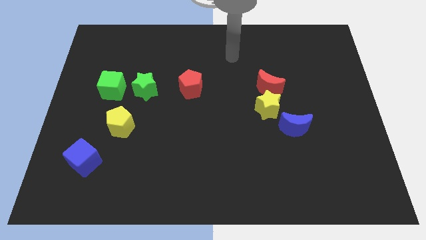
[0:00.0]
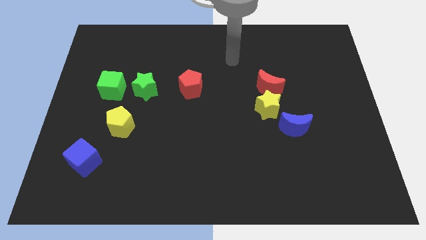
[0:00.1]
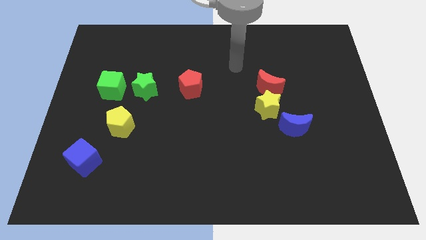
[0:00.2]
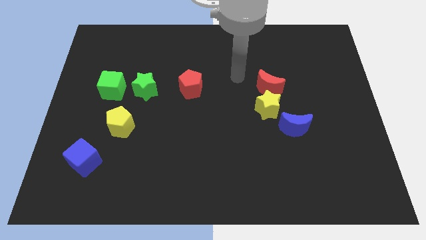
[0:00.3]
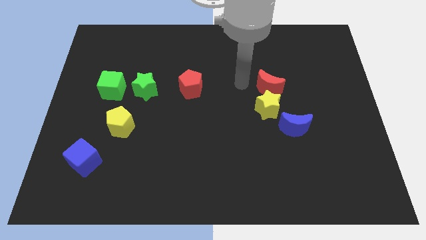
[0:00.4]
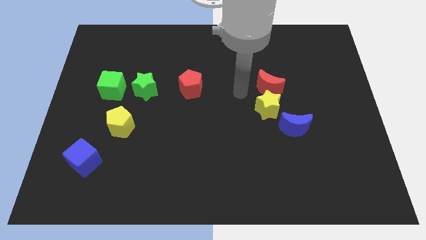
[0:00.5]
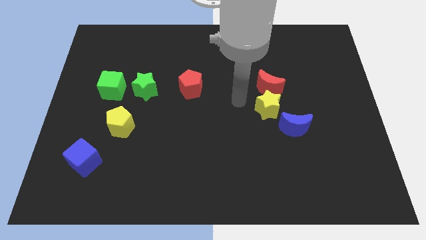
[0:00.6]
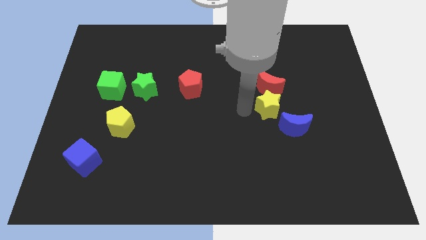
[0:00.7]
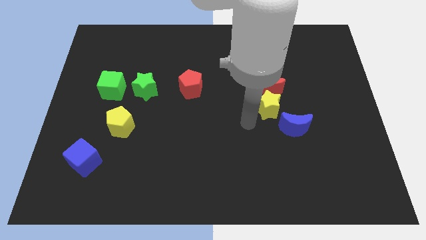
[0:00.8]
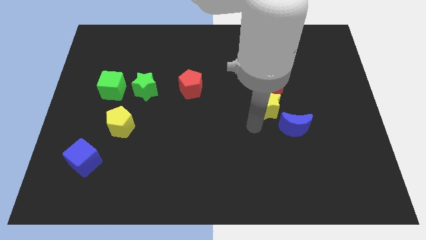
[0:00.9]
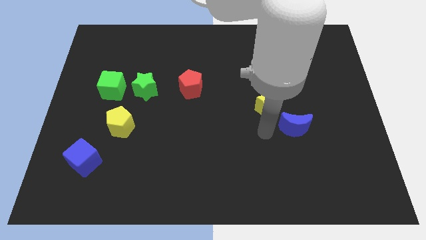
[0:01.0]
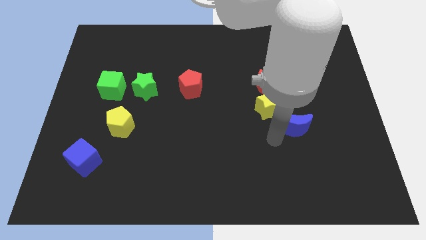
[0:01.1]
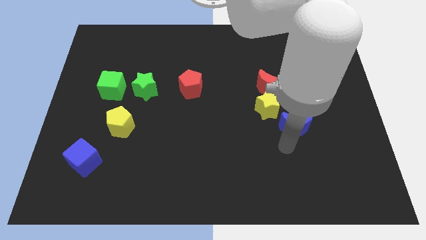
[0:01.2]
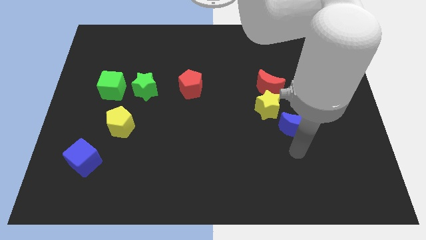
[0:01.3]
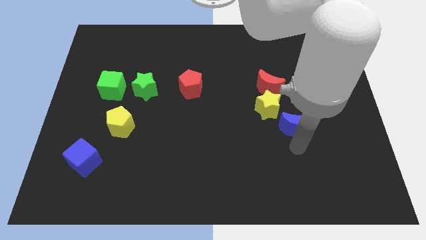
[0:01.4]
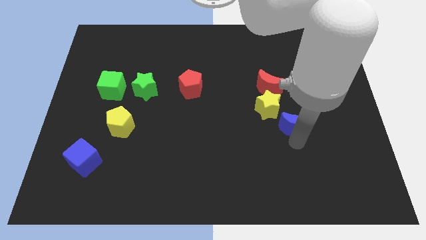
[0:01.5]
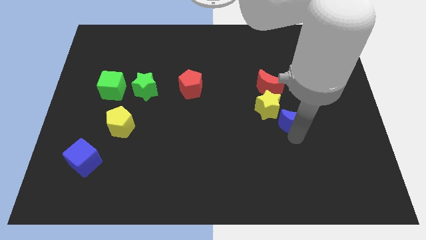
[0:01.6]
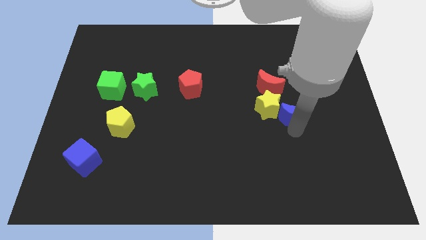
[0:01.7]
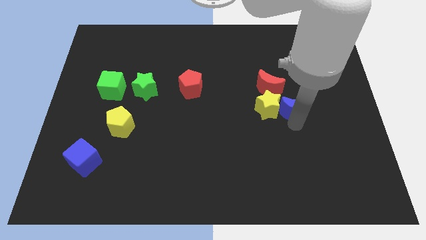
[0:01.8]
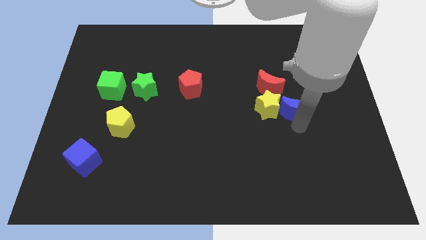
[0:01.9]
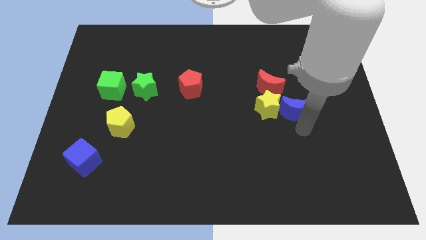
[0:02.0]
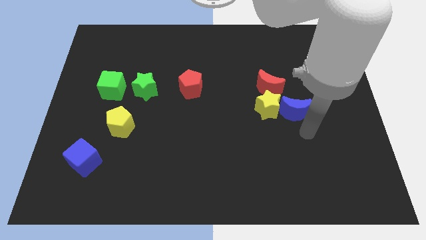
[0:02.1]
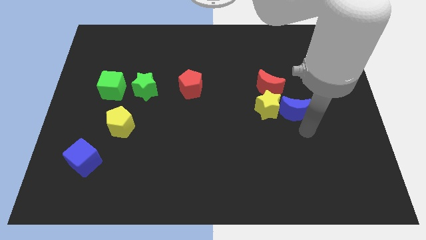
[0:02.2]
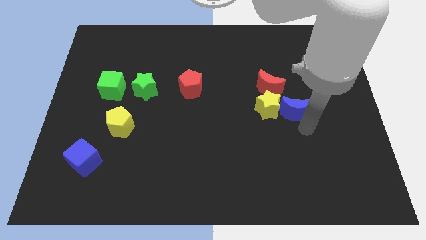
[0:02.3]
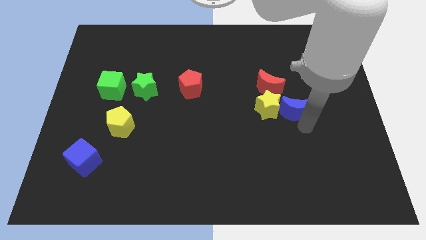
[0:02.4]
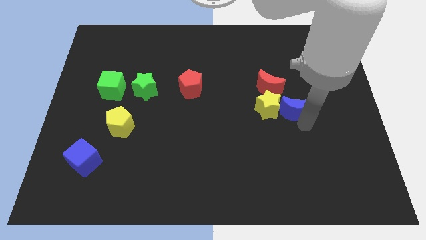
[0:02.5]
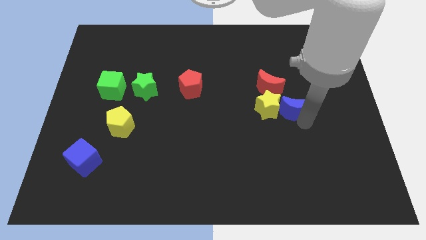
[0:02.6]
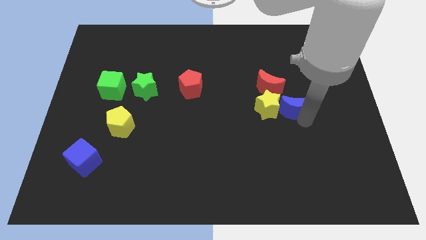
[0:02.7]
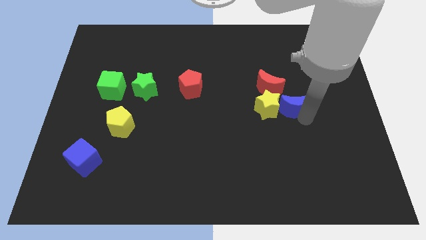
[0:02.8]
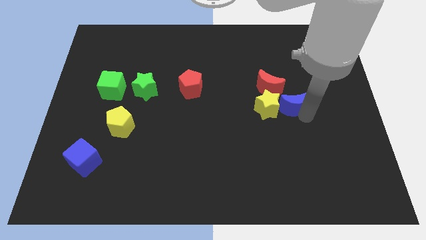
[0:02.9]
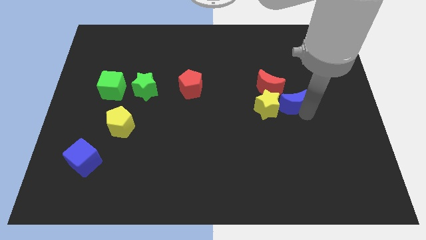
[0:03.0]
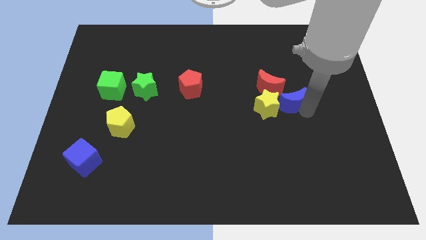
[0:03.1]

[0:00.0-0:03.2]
move the blue moon a little upwards

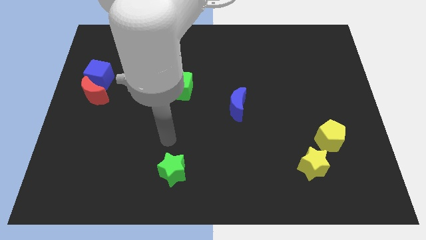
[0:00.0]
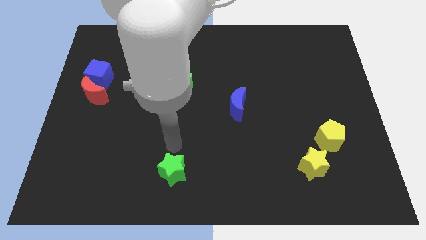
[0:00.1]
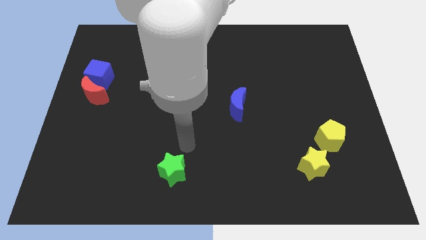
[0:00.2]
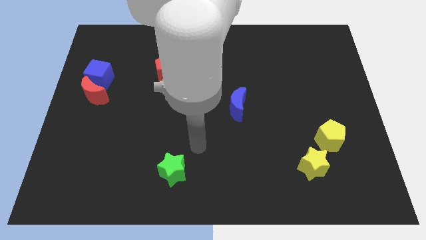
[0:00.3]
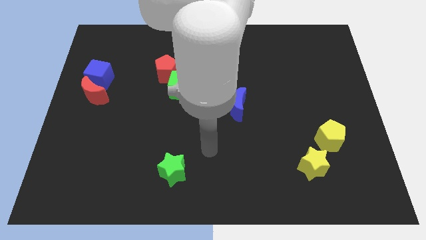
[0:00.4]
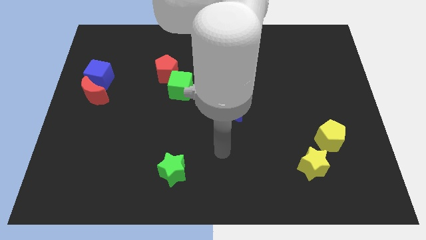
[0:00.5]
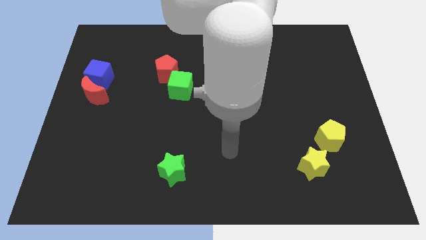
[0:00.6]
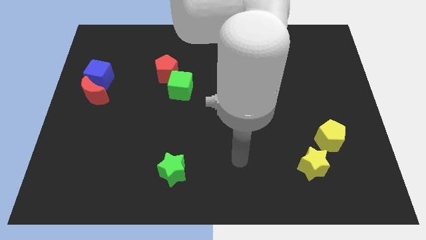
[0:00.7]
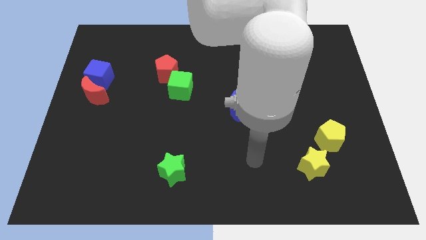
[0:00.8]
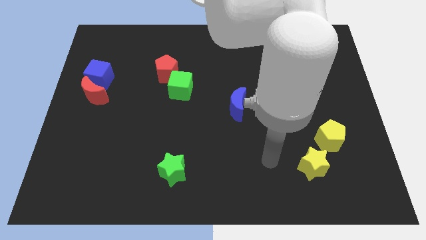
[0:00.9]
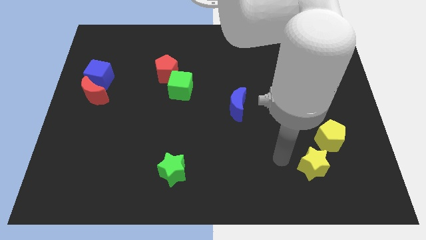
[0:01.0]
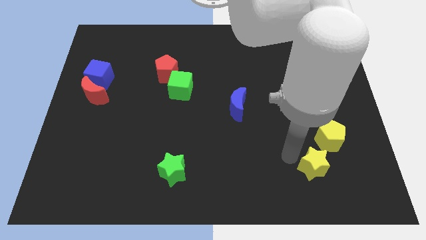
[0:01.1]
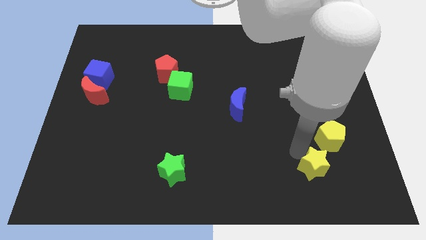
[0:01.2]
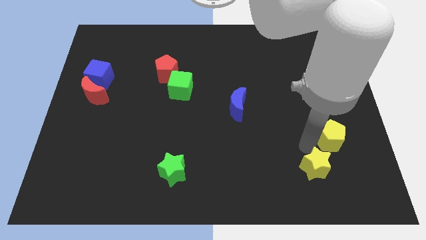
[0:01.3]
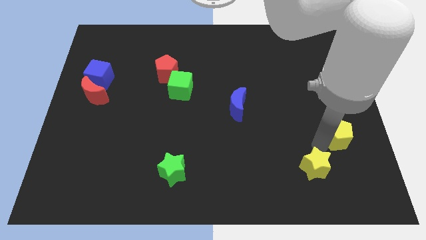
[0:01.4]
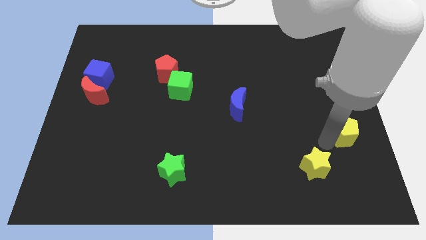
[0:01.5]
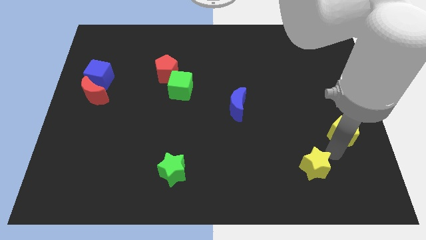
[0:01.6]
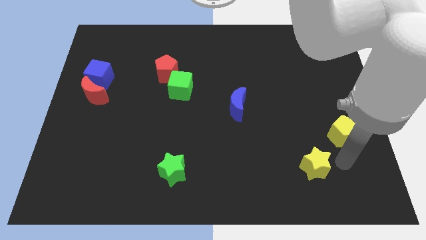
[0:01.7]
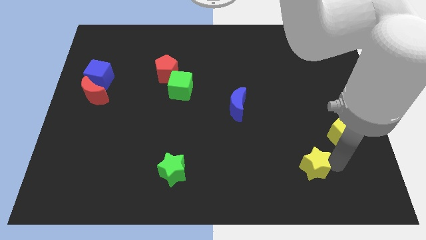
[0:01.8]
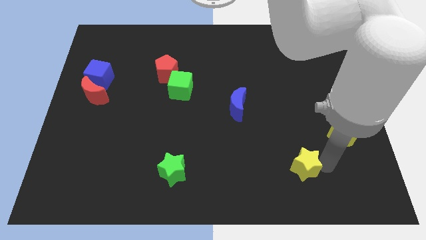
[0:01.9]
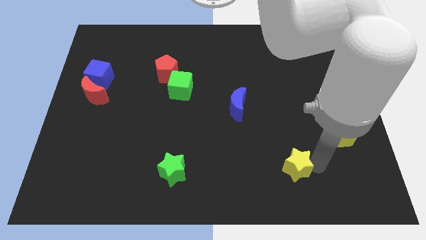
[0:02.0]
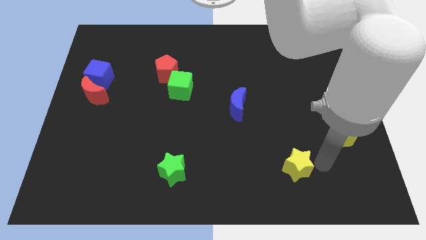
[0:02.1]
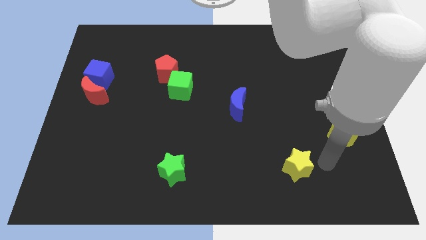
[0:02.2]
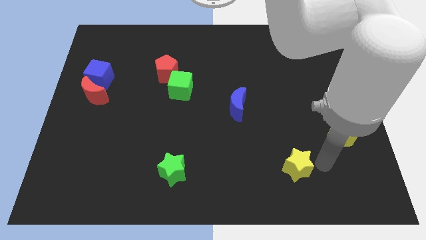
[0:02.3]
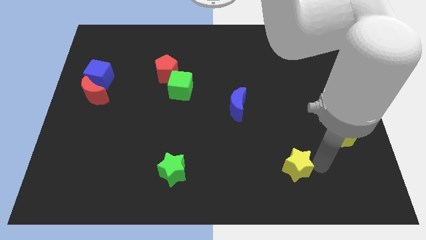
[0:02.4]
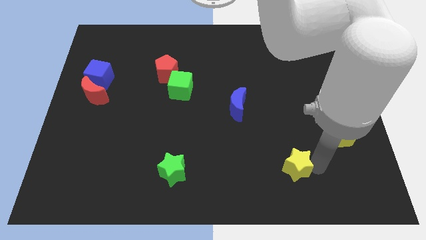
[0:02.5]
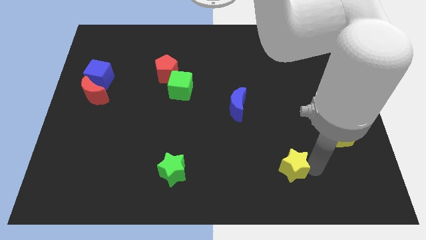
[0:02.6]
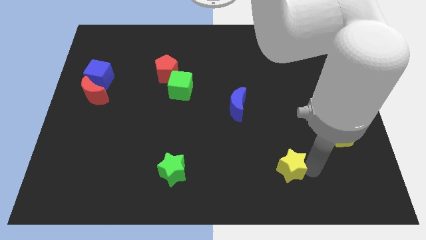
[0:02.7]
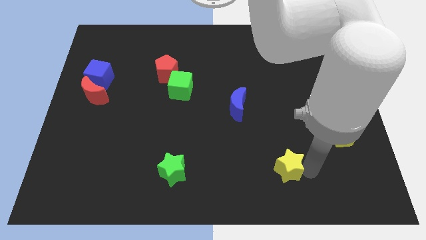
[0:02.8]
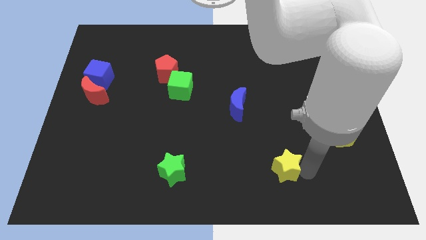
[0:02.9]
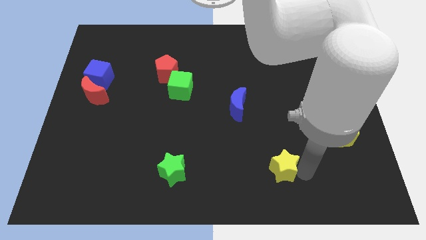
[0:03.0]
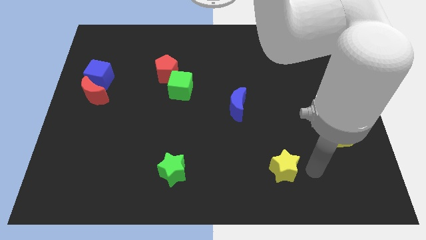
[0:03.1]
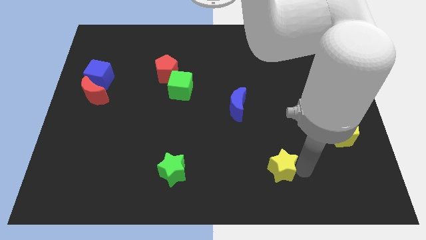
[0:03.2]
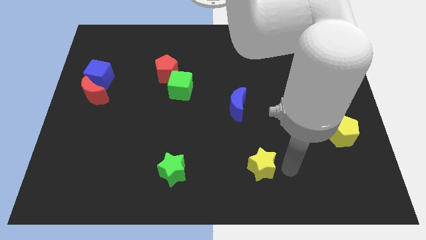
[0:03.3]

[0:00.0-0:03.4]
push the yellow star somewhat left

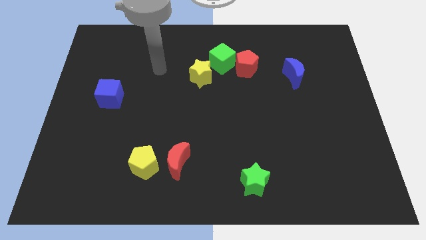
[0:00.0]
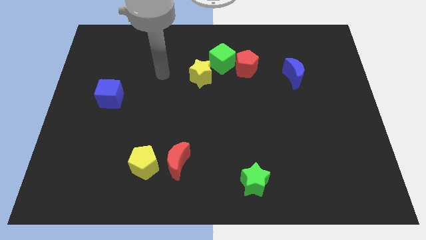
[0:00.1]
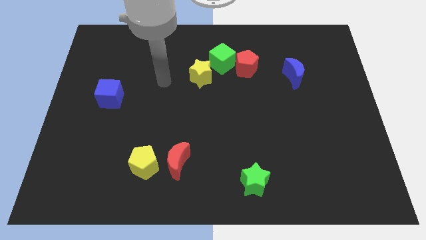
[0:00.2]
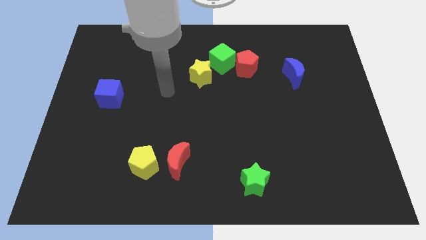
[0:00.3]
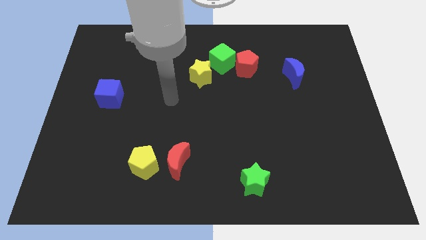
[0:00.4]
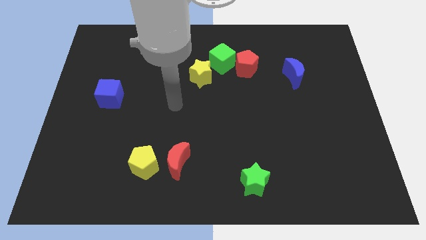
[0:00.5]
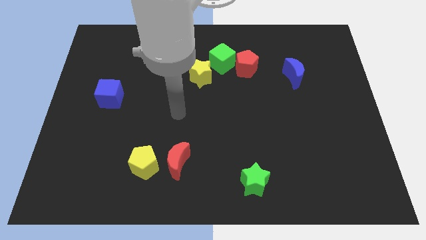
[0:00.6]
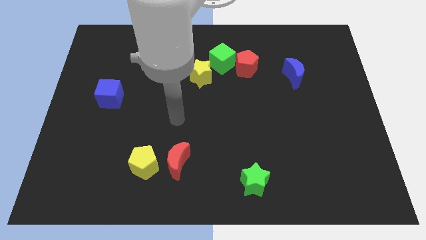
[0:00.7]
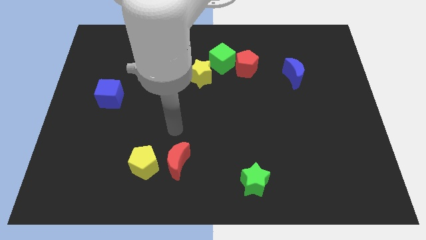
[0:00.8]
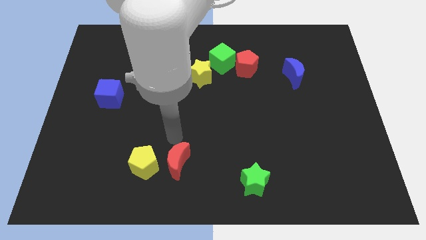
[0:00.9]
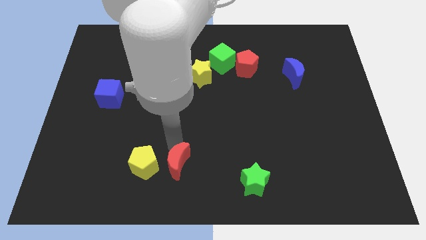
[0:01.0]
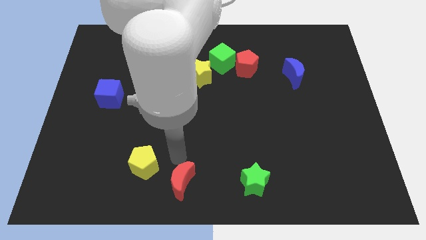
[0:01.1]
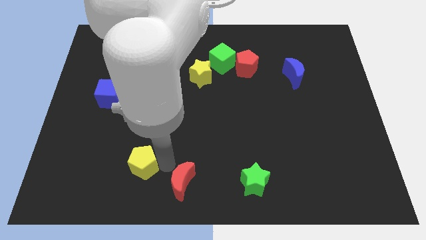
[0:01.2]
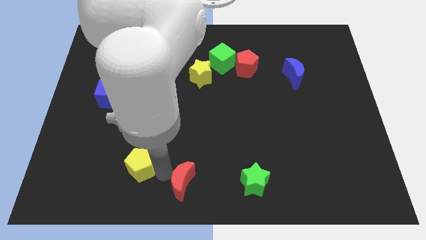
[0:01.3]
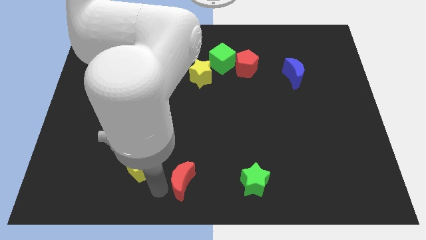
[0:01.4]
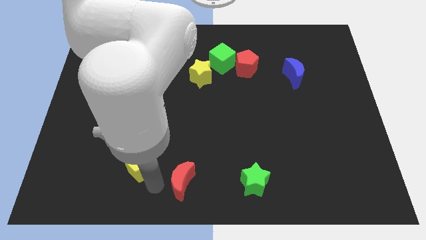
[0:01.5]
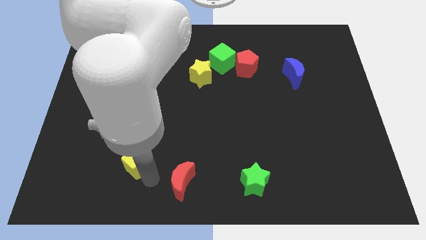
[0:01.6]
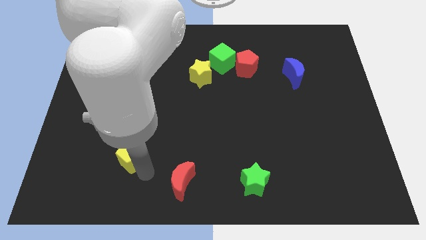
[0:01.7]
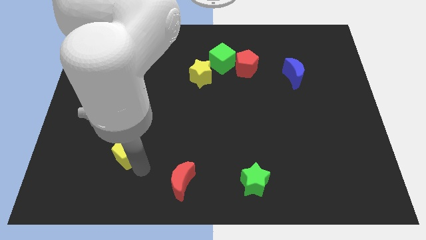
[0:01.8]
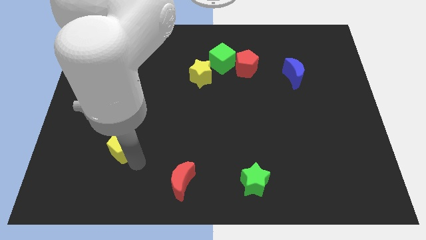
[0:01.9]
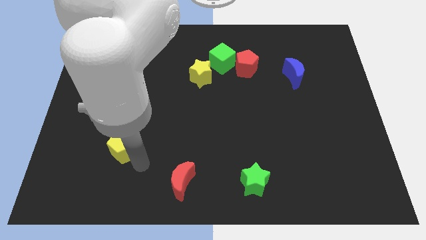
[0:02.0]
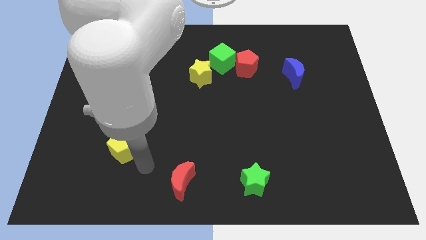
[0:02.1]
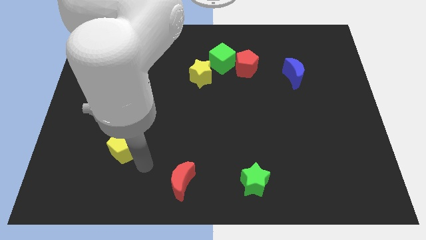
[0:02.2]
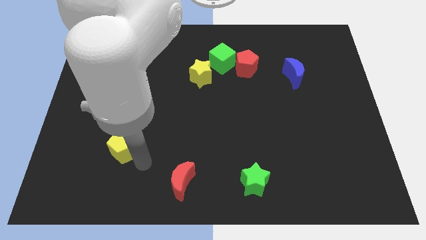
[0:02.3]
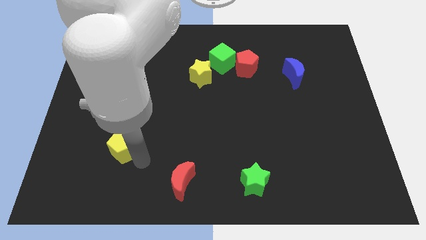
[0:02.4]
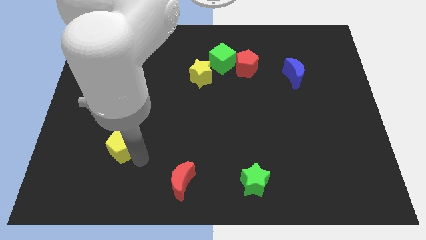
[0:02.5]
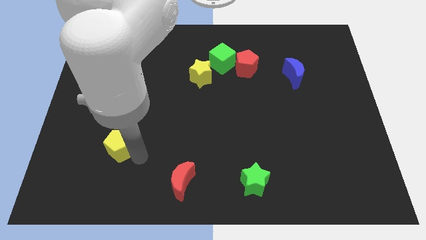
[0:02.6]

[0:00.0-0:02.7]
push the yellow pentagon upwards and to the left somewhat
